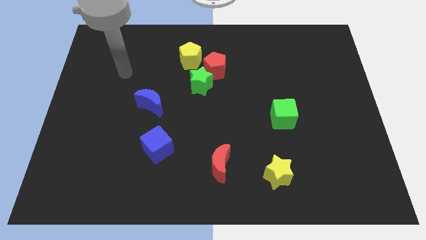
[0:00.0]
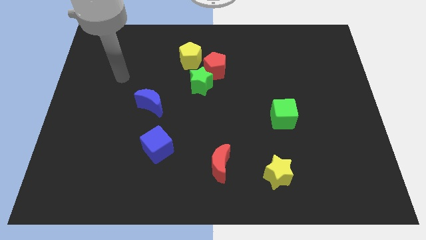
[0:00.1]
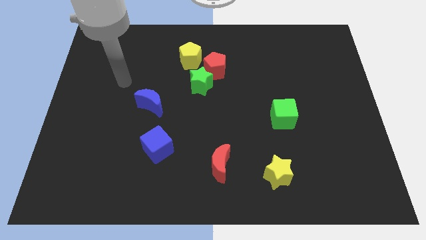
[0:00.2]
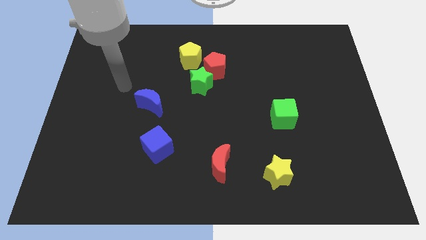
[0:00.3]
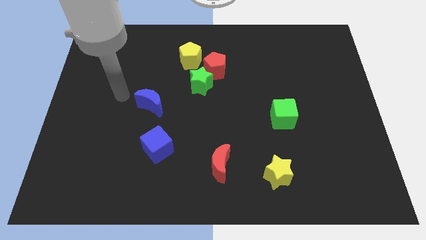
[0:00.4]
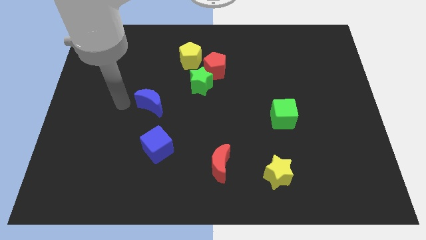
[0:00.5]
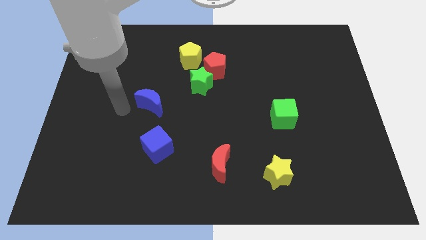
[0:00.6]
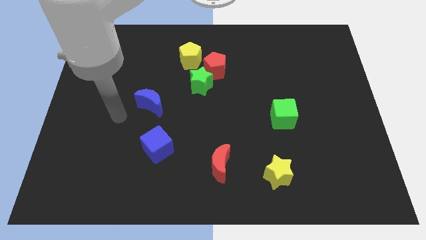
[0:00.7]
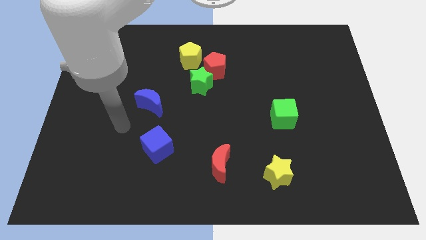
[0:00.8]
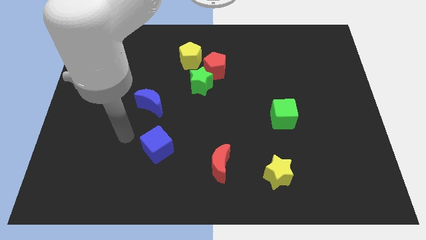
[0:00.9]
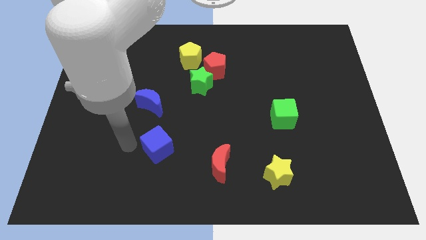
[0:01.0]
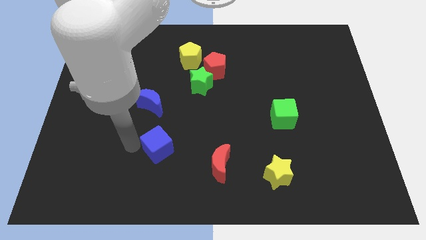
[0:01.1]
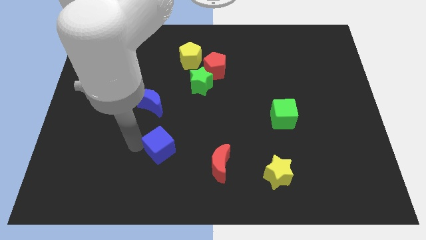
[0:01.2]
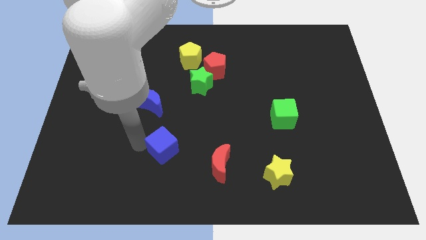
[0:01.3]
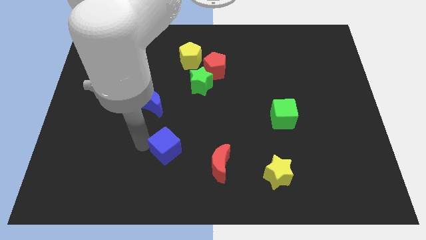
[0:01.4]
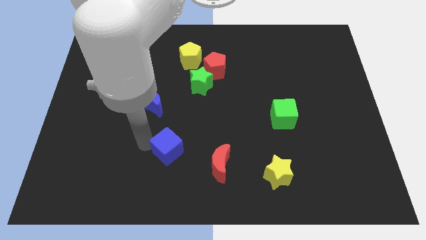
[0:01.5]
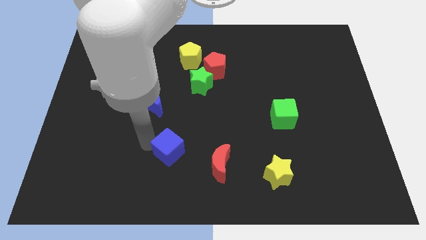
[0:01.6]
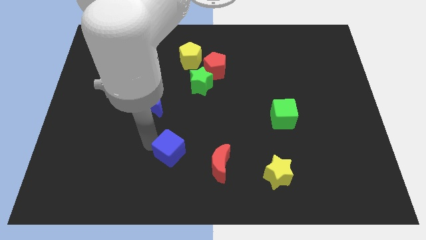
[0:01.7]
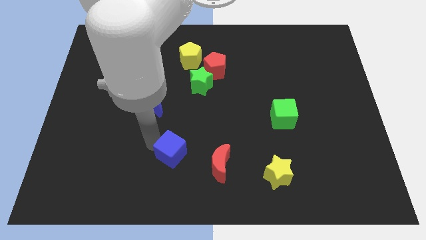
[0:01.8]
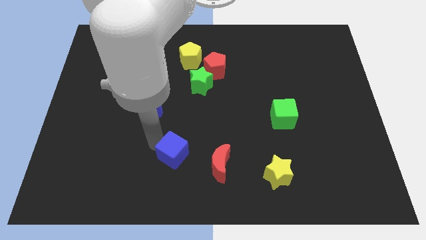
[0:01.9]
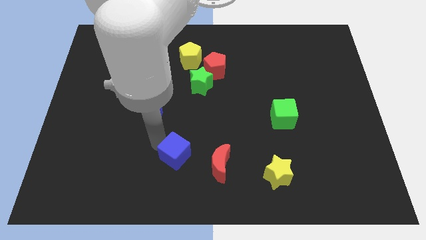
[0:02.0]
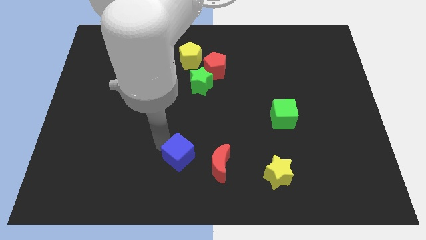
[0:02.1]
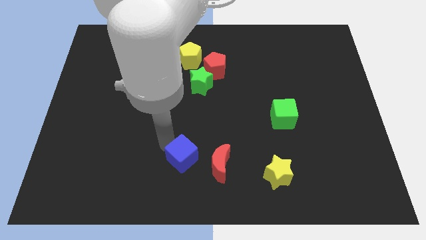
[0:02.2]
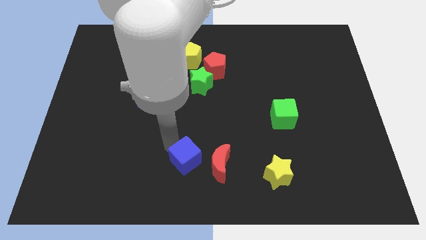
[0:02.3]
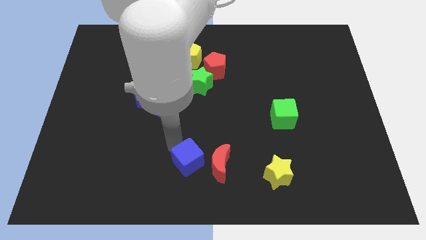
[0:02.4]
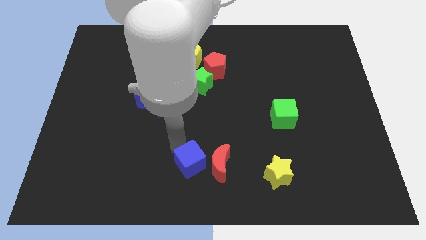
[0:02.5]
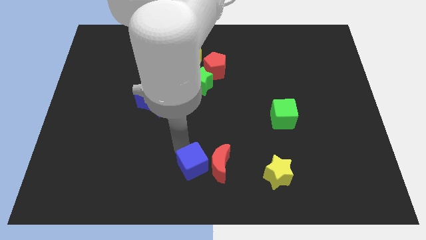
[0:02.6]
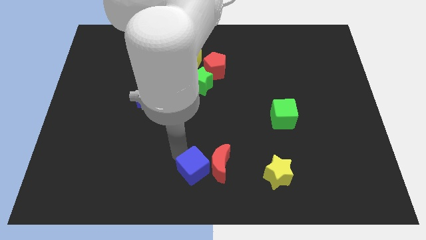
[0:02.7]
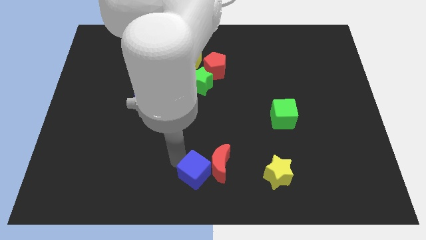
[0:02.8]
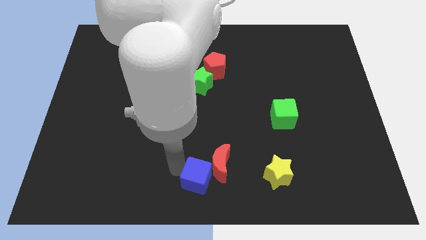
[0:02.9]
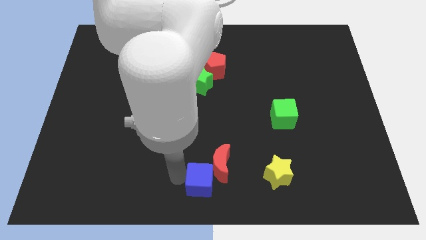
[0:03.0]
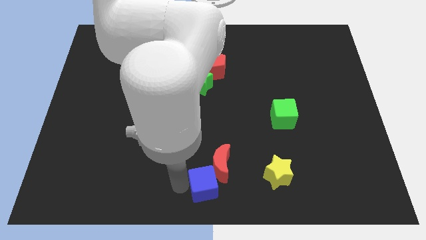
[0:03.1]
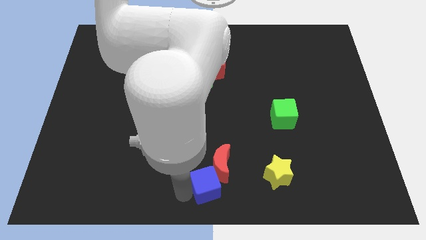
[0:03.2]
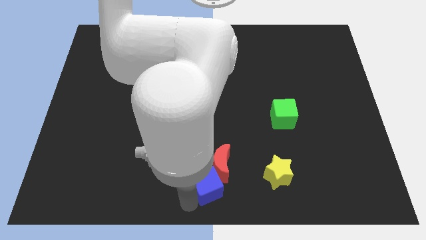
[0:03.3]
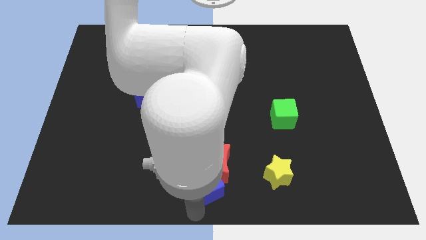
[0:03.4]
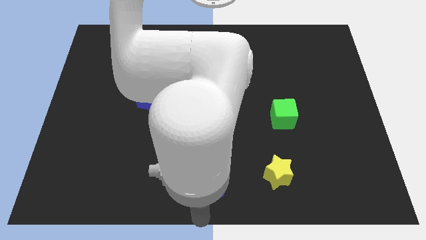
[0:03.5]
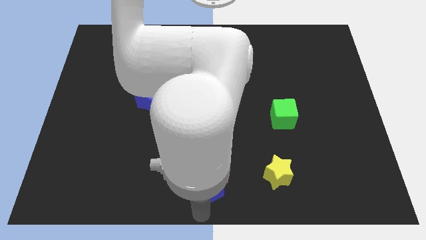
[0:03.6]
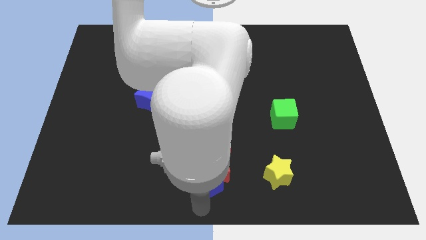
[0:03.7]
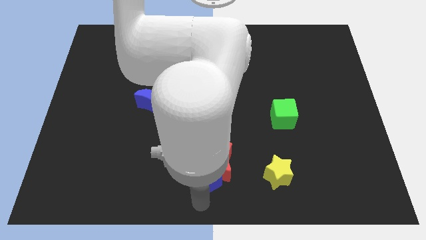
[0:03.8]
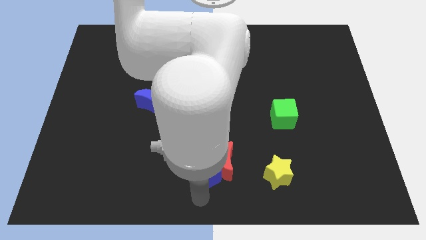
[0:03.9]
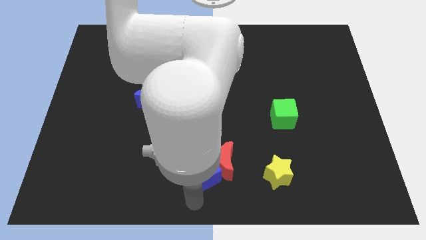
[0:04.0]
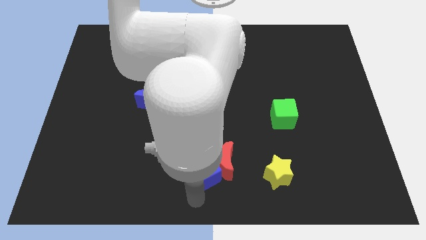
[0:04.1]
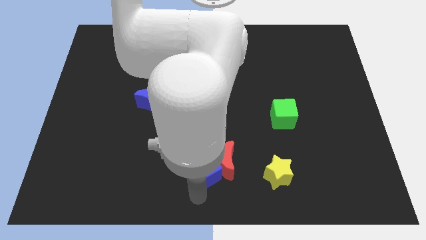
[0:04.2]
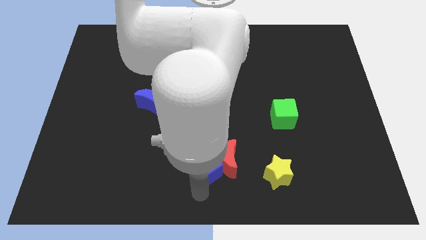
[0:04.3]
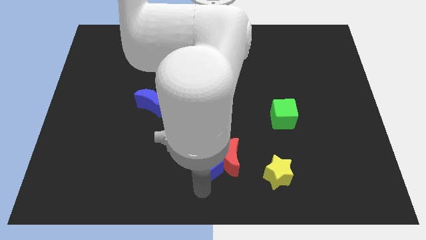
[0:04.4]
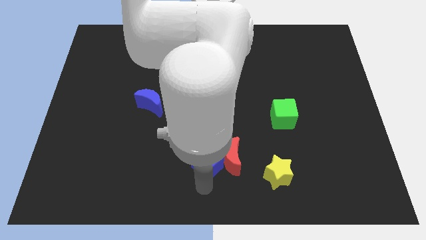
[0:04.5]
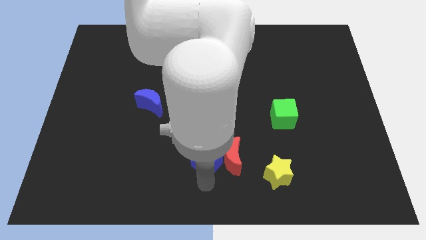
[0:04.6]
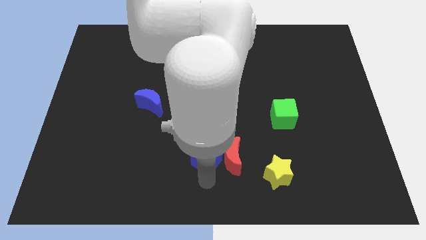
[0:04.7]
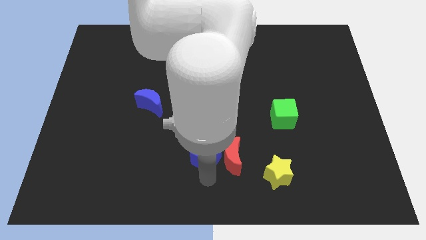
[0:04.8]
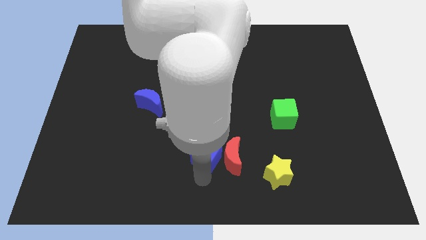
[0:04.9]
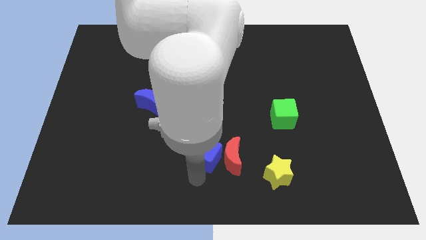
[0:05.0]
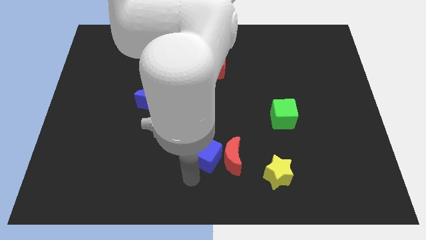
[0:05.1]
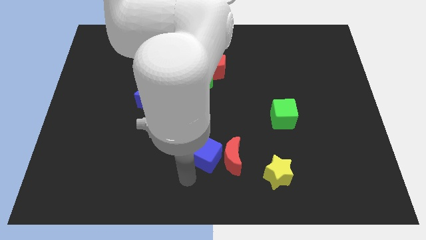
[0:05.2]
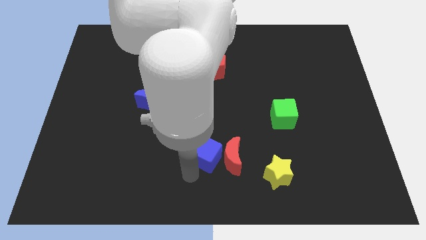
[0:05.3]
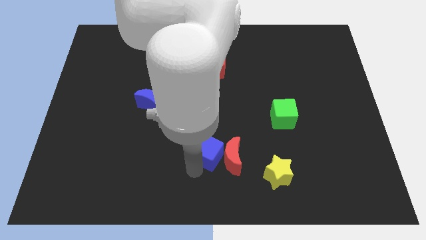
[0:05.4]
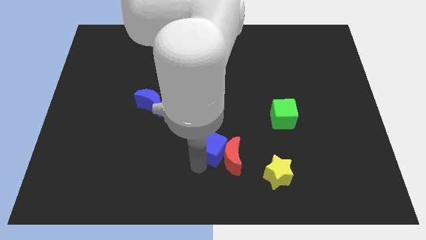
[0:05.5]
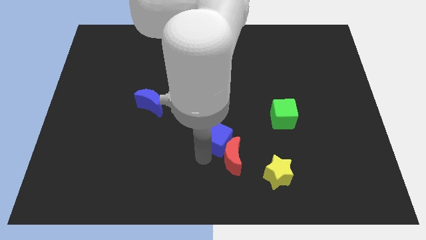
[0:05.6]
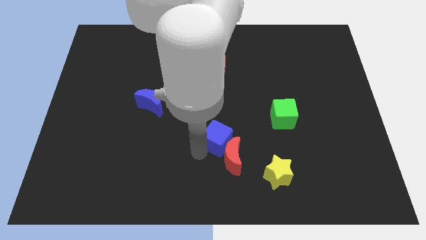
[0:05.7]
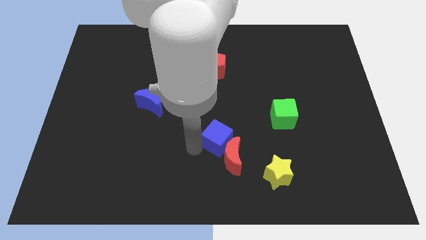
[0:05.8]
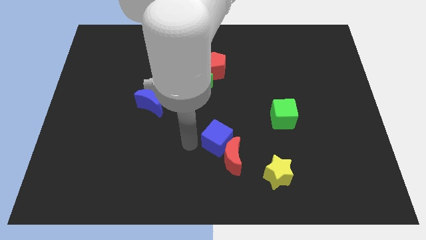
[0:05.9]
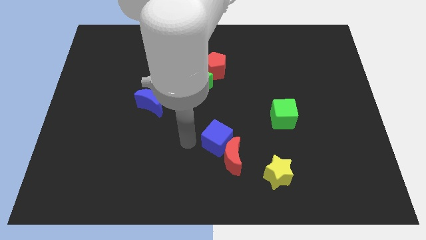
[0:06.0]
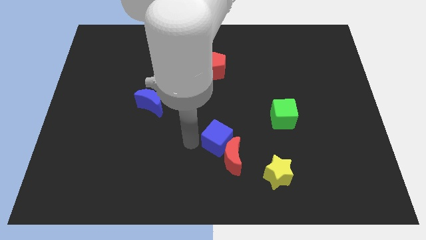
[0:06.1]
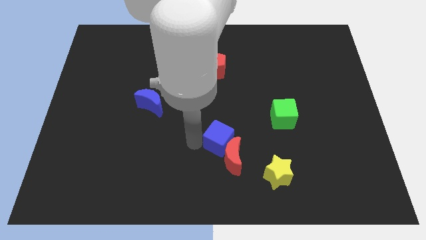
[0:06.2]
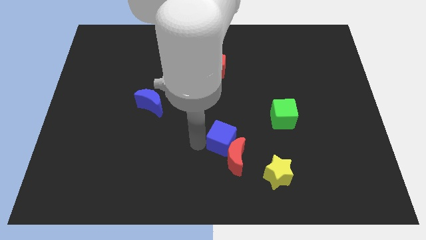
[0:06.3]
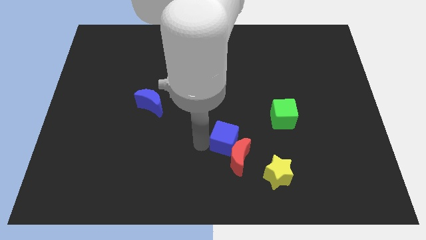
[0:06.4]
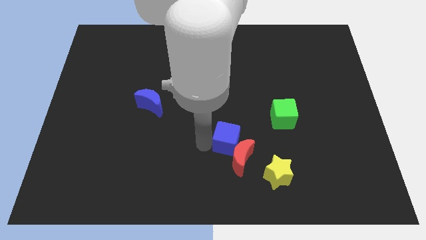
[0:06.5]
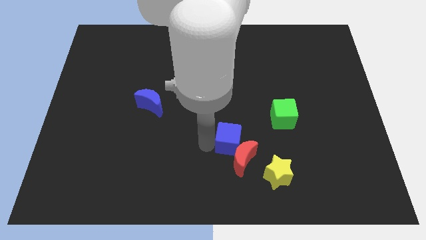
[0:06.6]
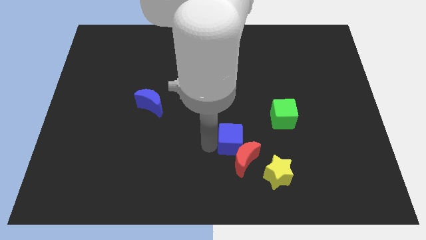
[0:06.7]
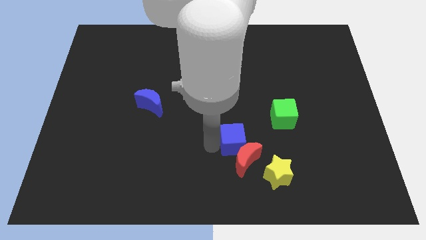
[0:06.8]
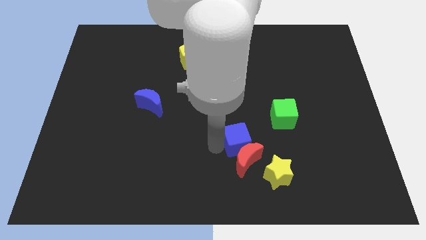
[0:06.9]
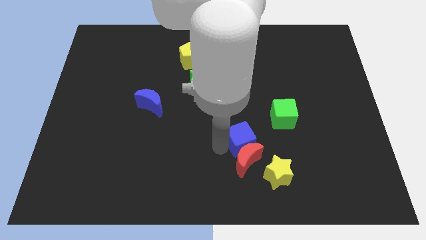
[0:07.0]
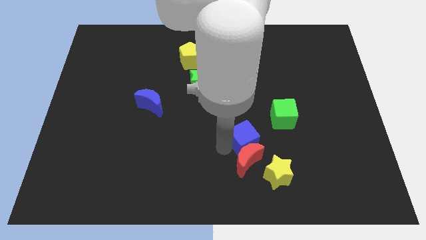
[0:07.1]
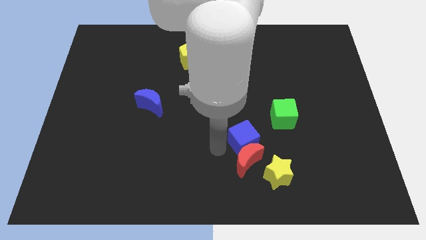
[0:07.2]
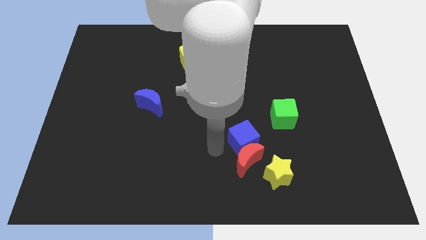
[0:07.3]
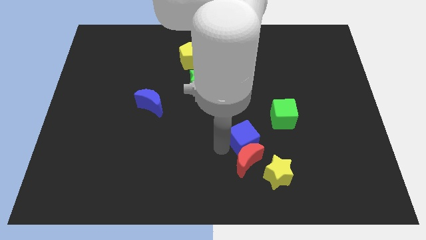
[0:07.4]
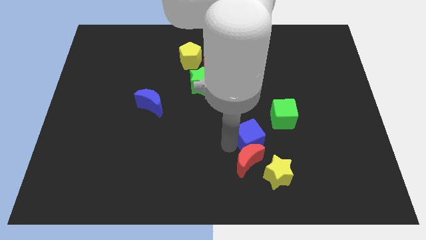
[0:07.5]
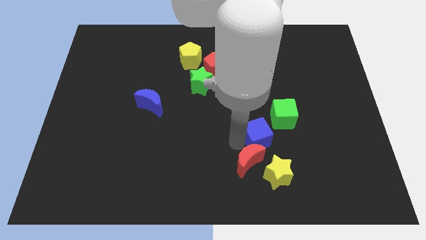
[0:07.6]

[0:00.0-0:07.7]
move the blue cube above the yellow star
